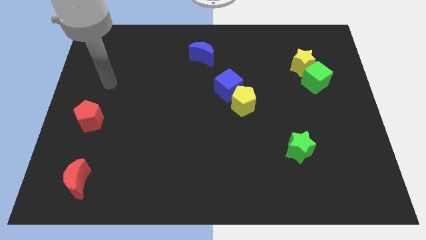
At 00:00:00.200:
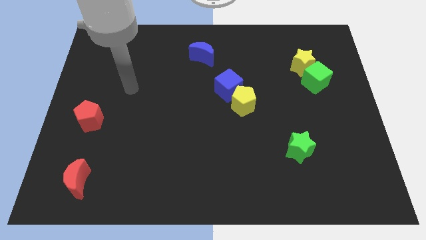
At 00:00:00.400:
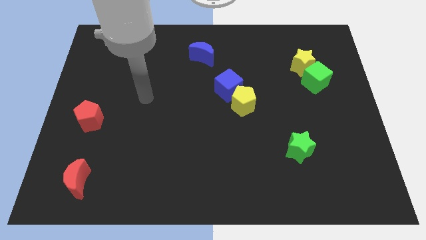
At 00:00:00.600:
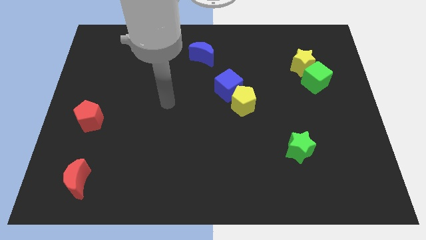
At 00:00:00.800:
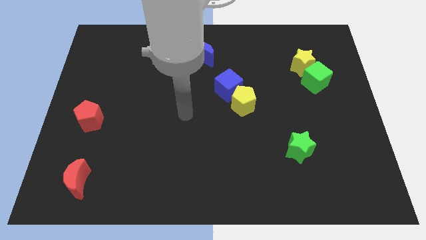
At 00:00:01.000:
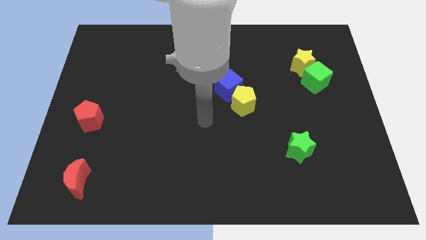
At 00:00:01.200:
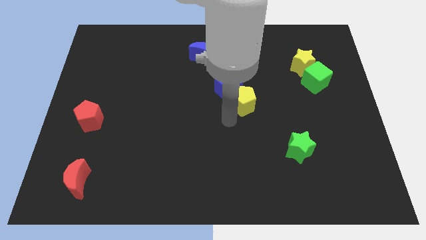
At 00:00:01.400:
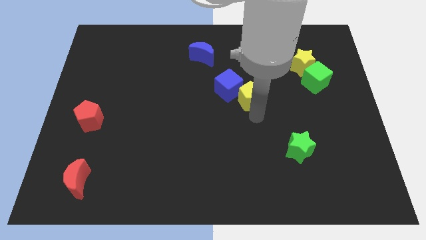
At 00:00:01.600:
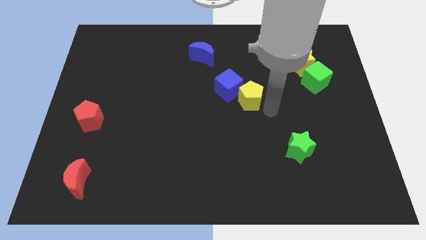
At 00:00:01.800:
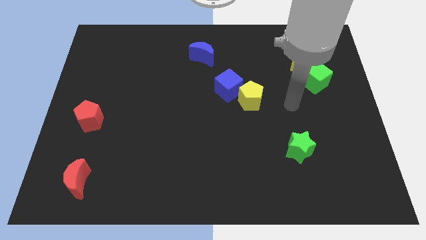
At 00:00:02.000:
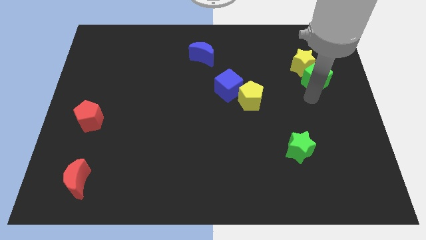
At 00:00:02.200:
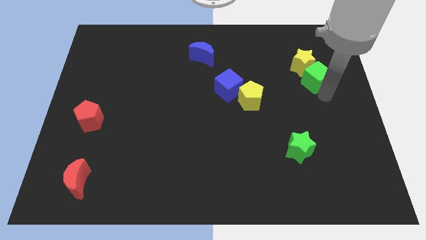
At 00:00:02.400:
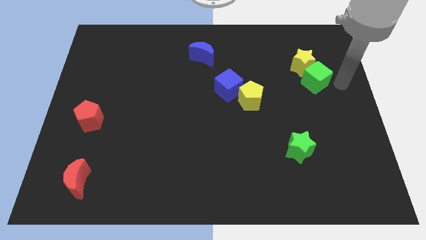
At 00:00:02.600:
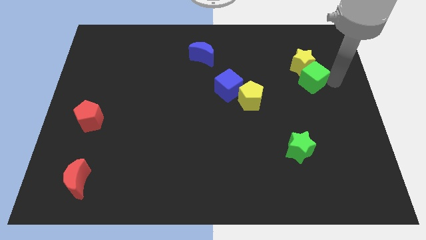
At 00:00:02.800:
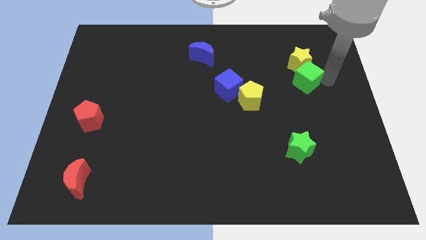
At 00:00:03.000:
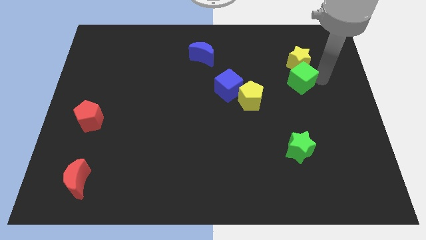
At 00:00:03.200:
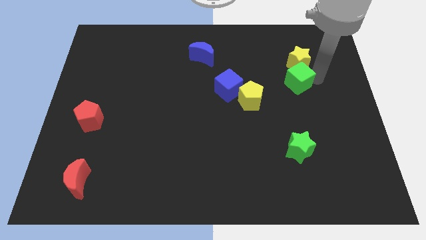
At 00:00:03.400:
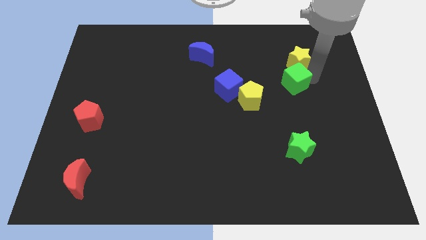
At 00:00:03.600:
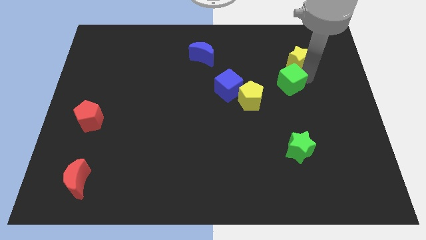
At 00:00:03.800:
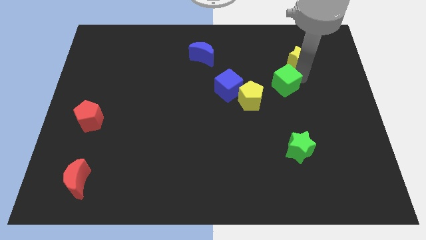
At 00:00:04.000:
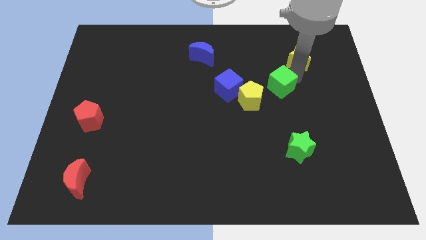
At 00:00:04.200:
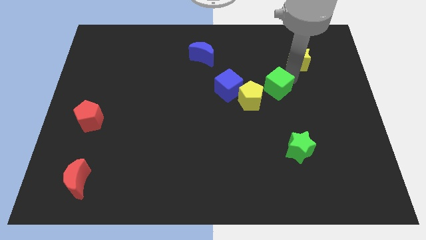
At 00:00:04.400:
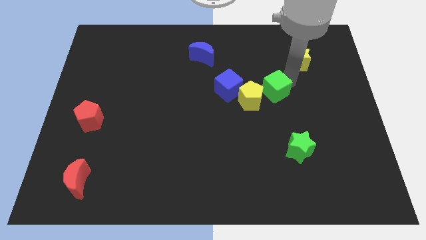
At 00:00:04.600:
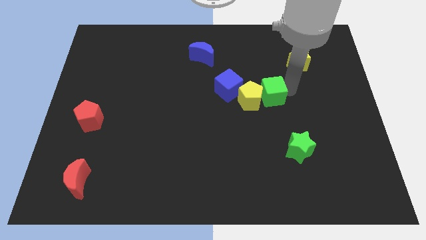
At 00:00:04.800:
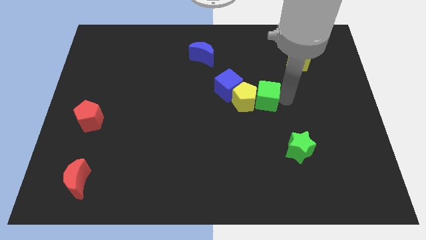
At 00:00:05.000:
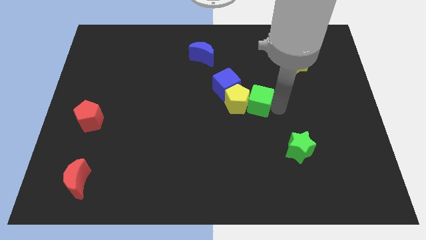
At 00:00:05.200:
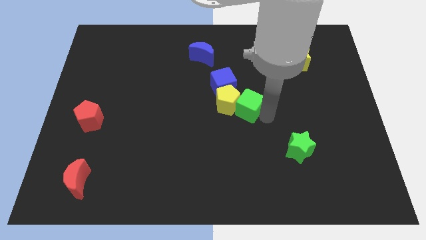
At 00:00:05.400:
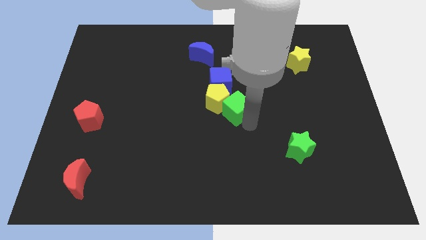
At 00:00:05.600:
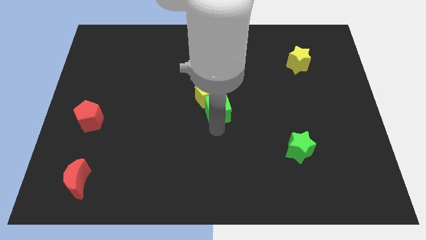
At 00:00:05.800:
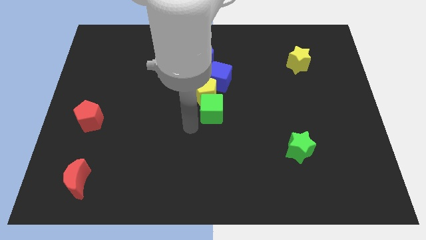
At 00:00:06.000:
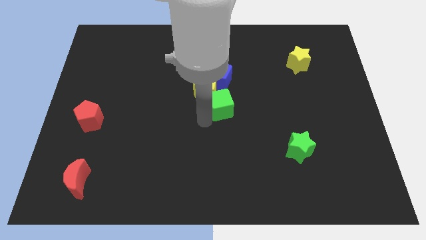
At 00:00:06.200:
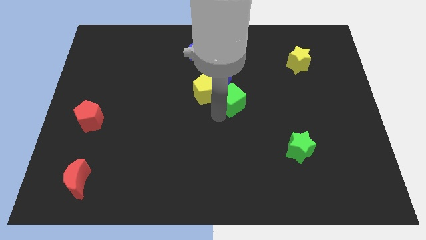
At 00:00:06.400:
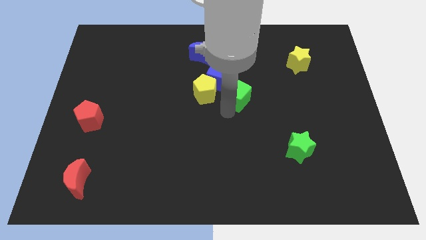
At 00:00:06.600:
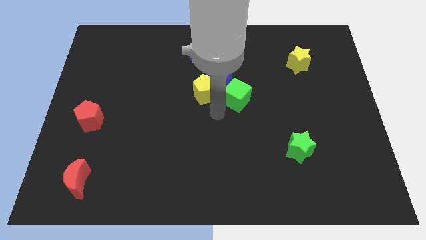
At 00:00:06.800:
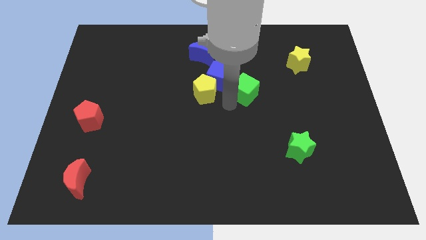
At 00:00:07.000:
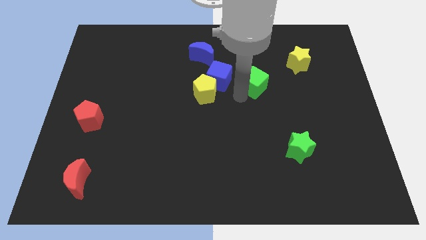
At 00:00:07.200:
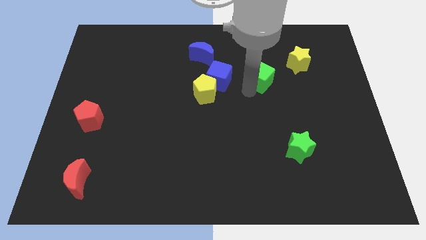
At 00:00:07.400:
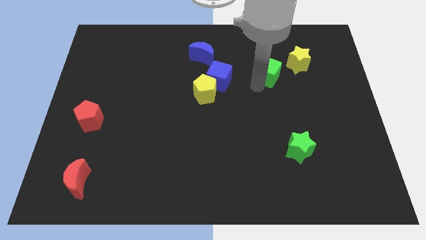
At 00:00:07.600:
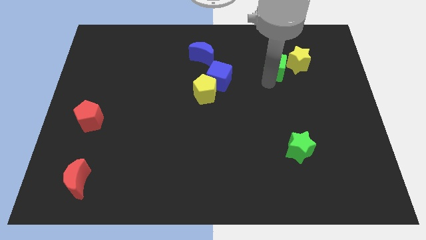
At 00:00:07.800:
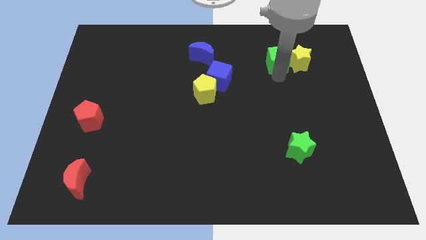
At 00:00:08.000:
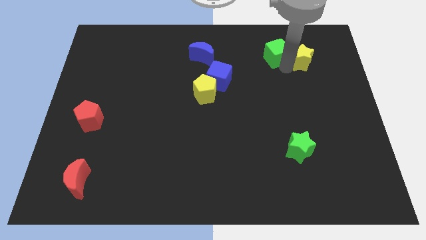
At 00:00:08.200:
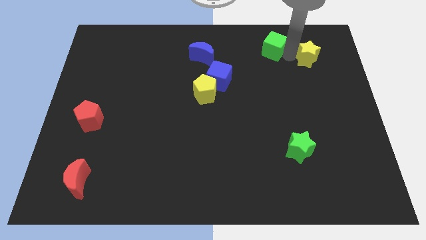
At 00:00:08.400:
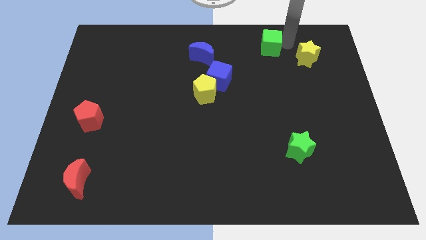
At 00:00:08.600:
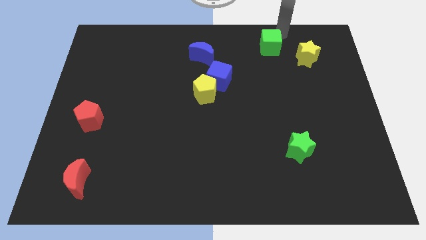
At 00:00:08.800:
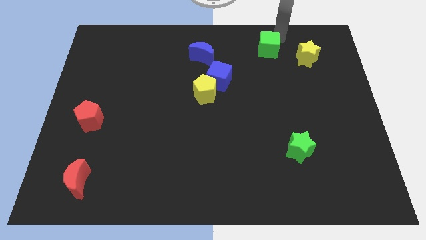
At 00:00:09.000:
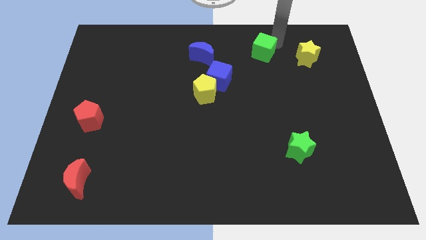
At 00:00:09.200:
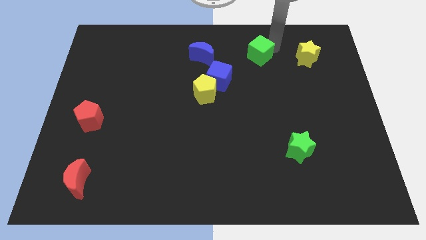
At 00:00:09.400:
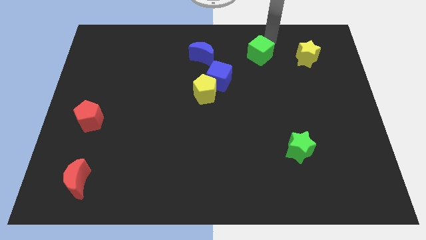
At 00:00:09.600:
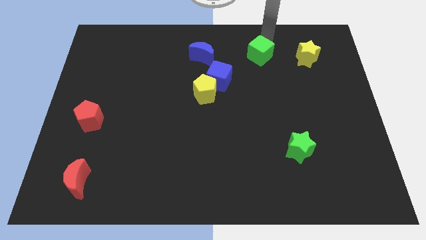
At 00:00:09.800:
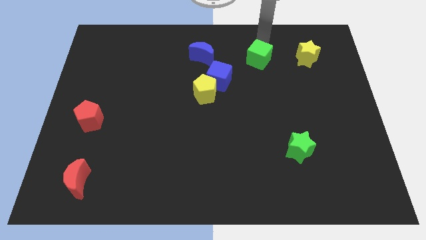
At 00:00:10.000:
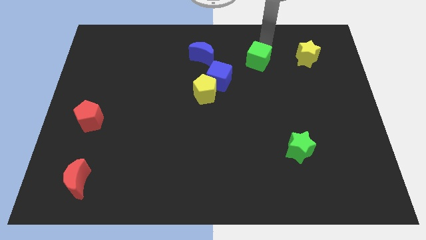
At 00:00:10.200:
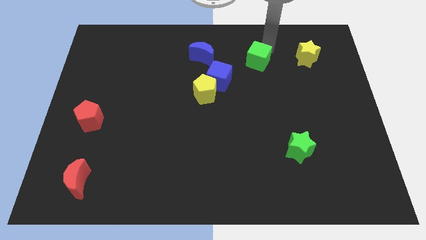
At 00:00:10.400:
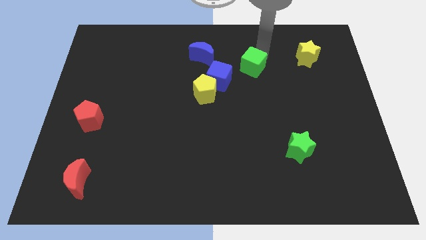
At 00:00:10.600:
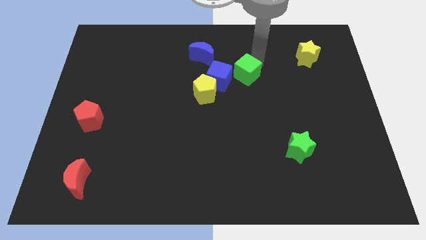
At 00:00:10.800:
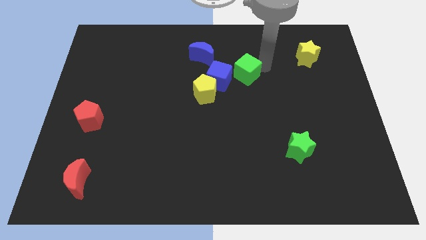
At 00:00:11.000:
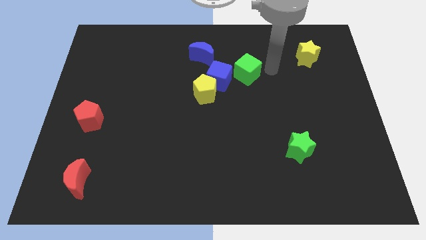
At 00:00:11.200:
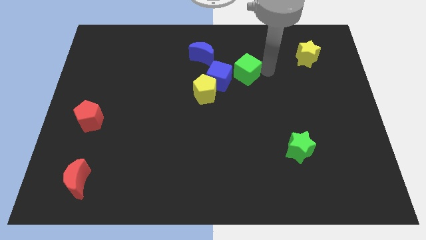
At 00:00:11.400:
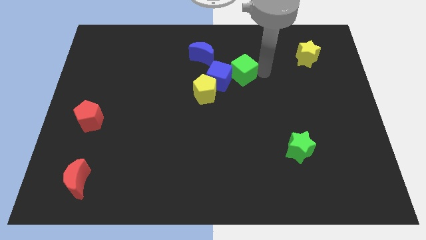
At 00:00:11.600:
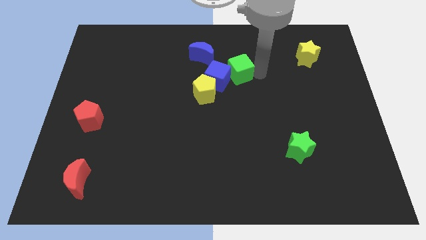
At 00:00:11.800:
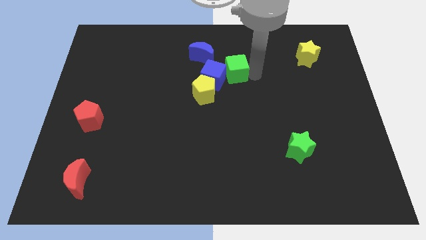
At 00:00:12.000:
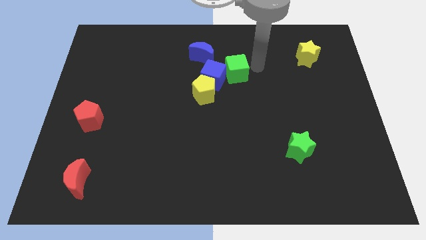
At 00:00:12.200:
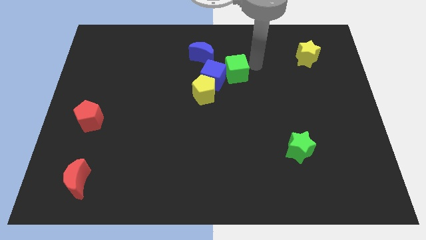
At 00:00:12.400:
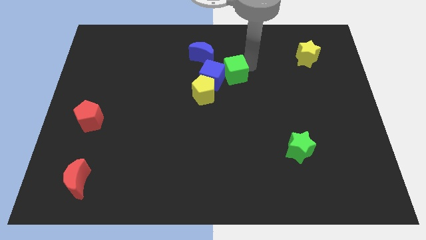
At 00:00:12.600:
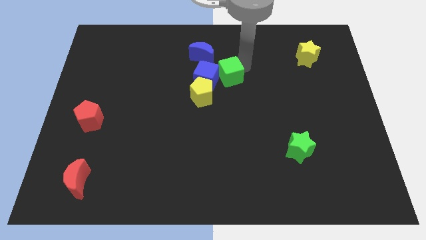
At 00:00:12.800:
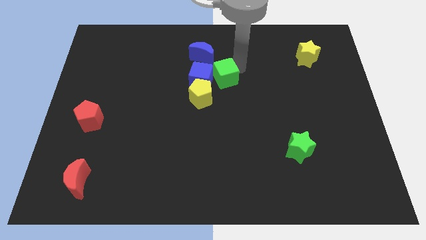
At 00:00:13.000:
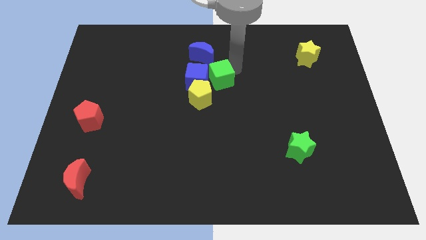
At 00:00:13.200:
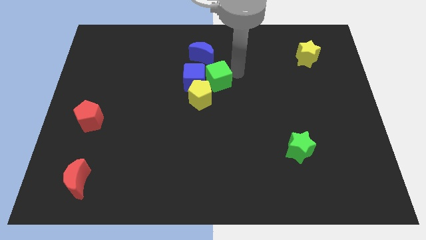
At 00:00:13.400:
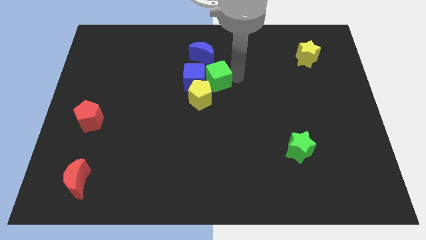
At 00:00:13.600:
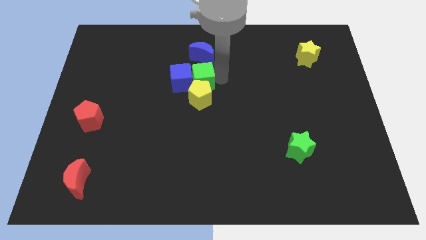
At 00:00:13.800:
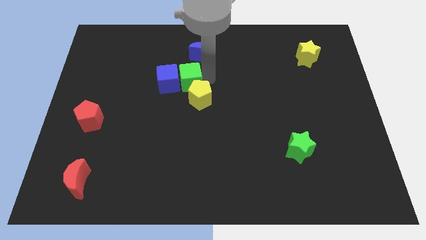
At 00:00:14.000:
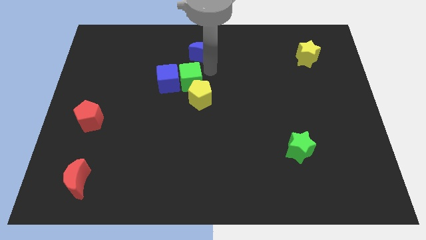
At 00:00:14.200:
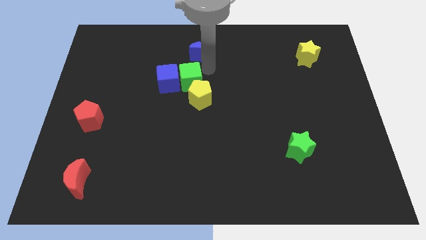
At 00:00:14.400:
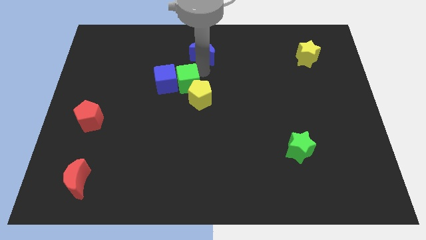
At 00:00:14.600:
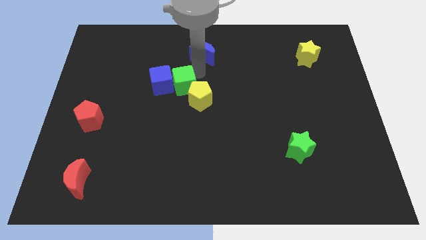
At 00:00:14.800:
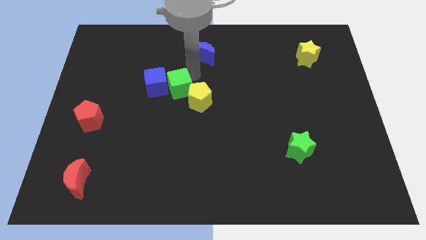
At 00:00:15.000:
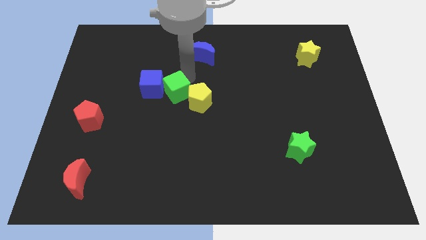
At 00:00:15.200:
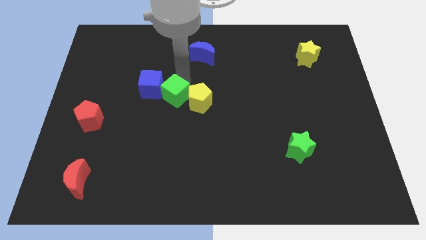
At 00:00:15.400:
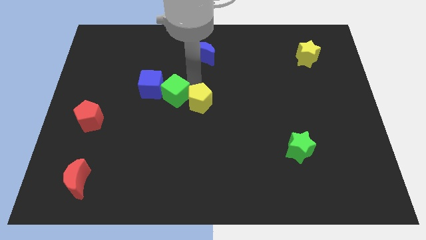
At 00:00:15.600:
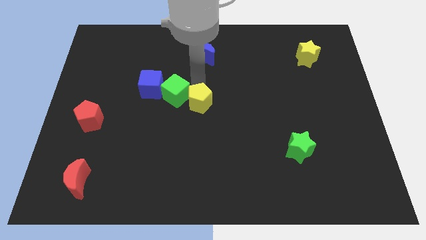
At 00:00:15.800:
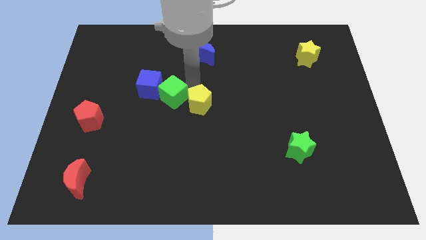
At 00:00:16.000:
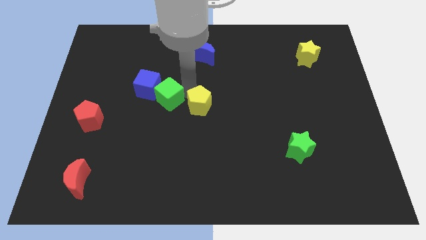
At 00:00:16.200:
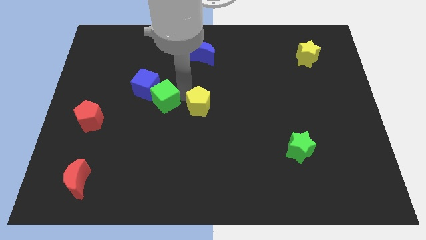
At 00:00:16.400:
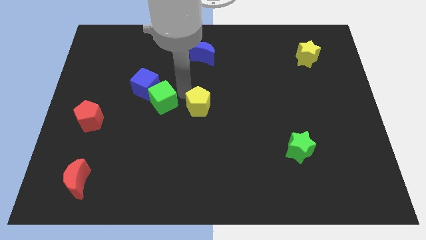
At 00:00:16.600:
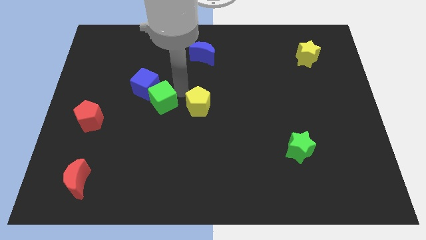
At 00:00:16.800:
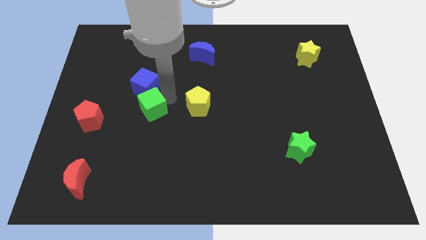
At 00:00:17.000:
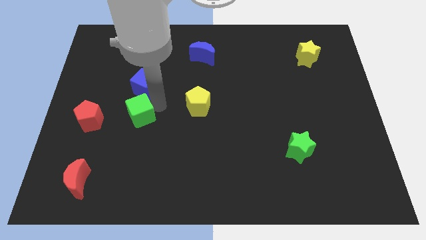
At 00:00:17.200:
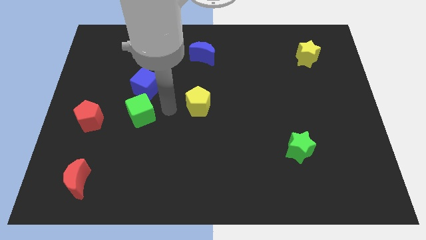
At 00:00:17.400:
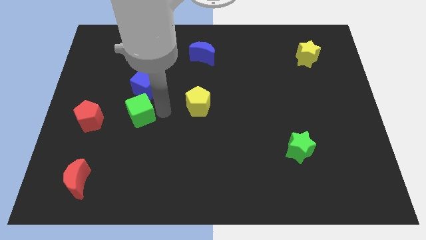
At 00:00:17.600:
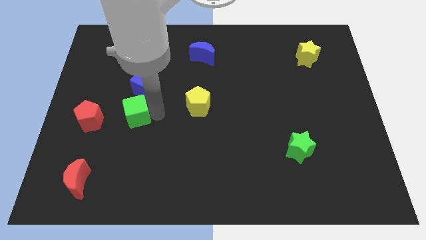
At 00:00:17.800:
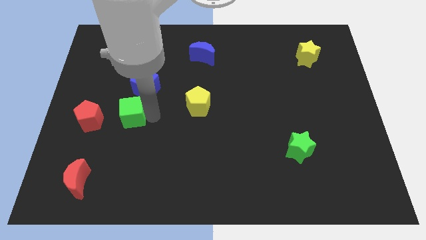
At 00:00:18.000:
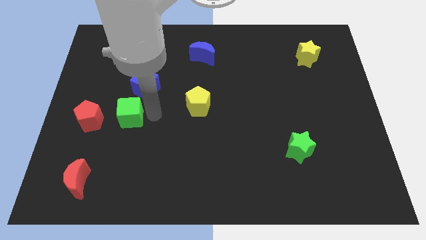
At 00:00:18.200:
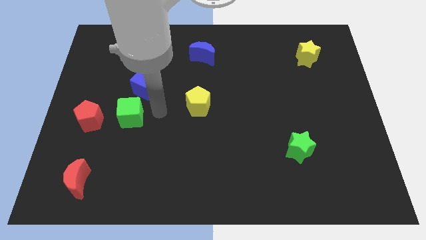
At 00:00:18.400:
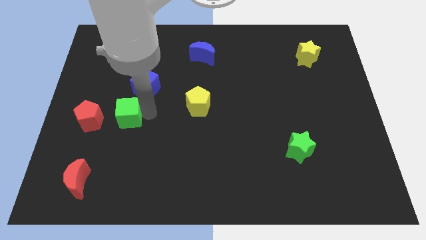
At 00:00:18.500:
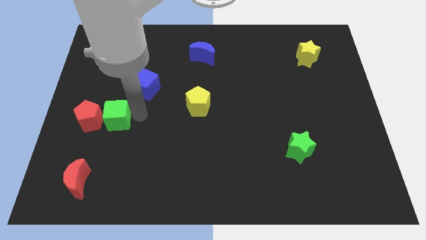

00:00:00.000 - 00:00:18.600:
push the green cube to the red pentagon
